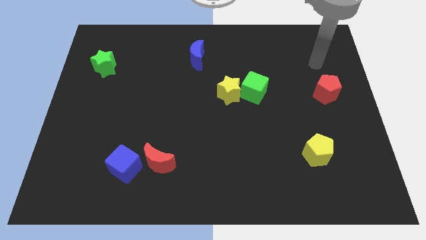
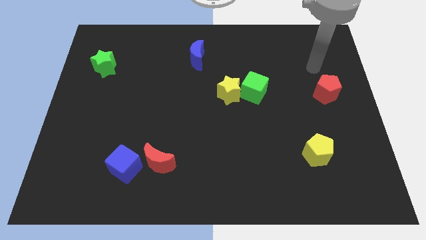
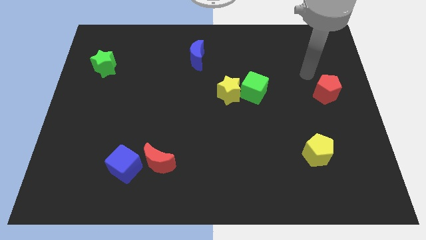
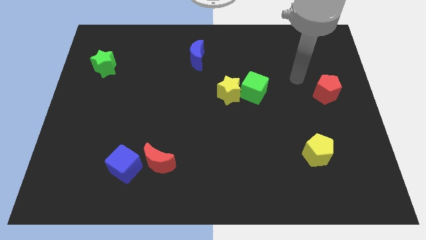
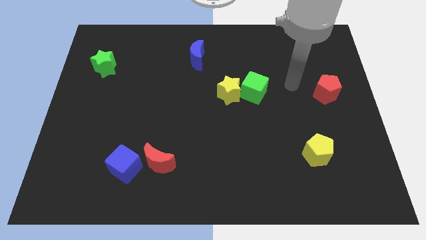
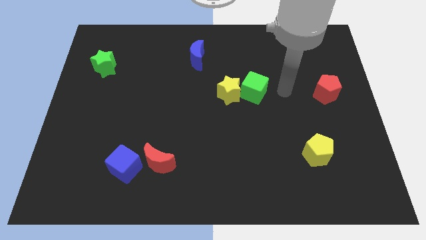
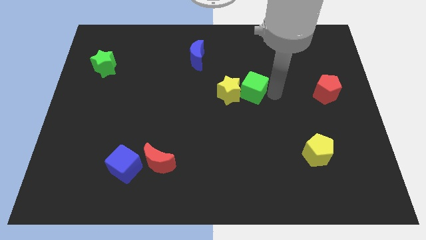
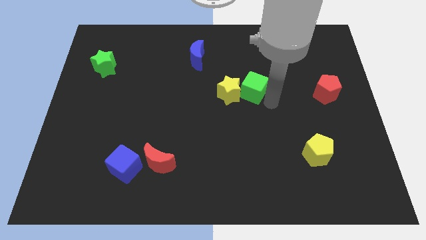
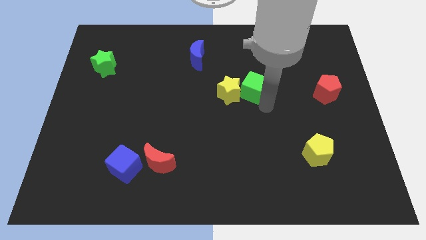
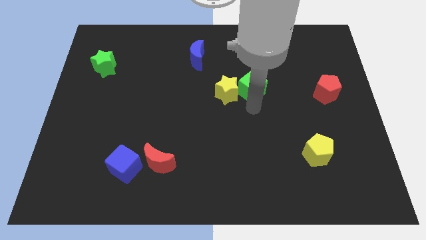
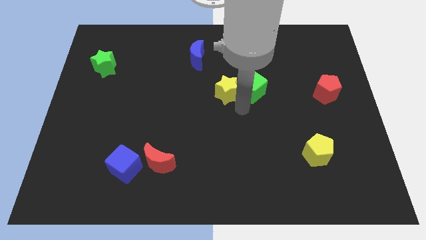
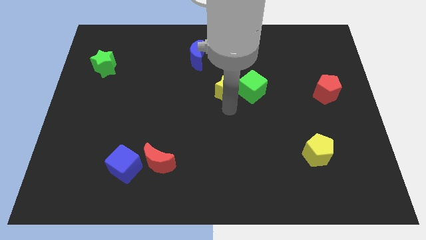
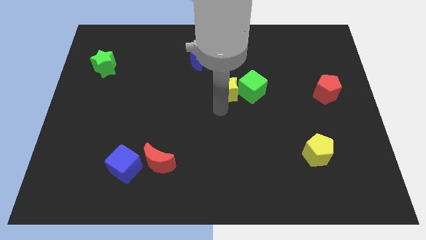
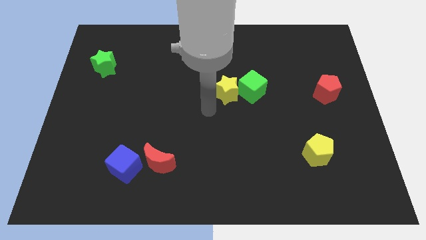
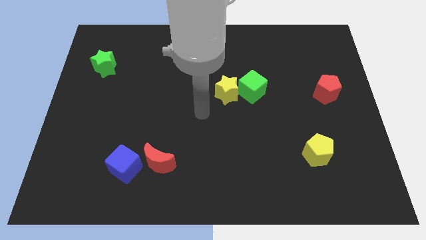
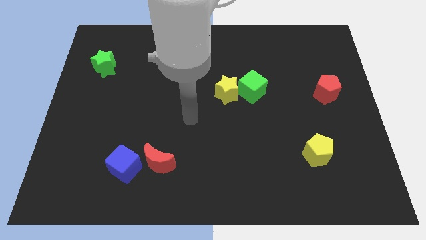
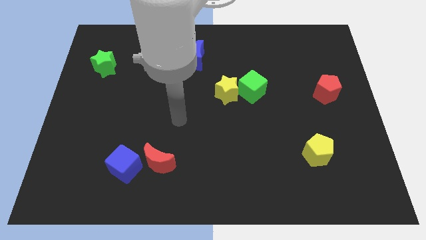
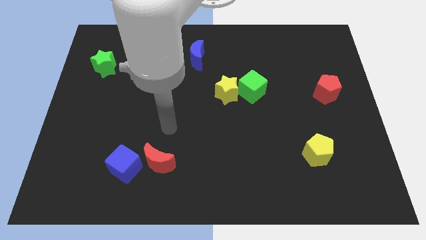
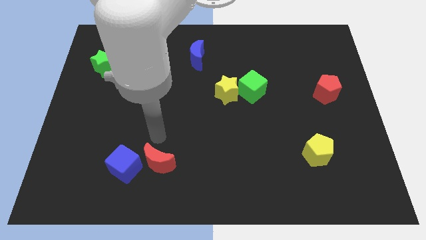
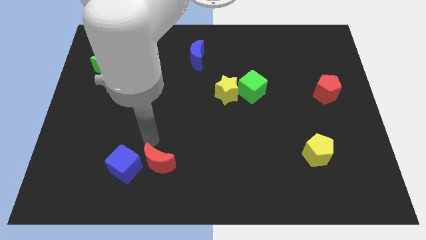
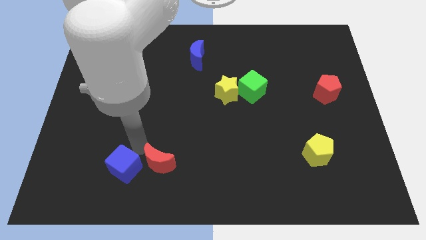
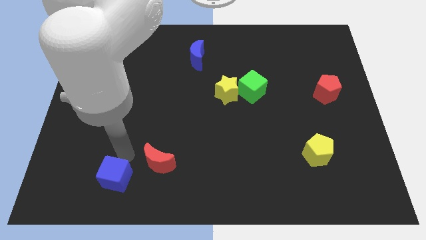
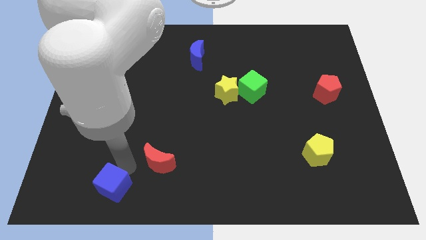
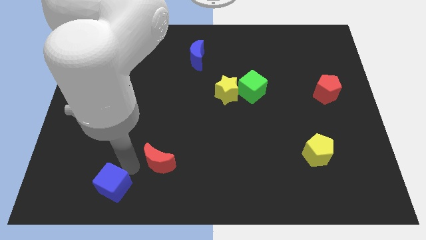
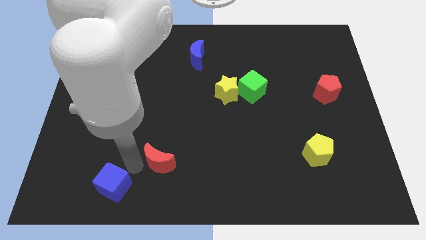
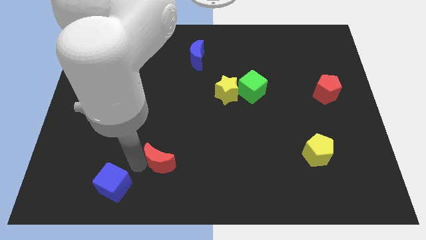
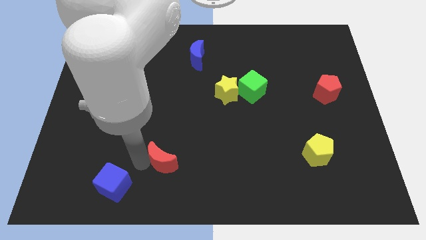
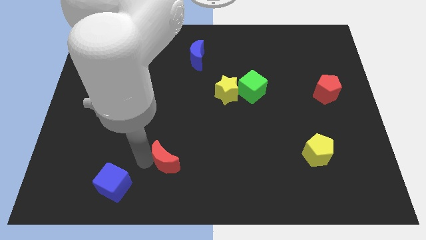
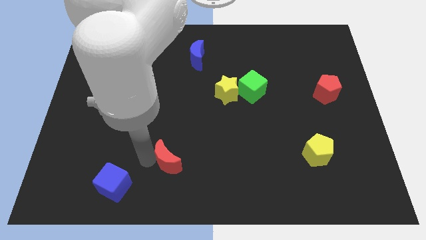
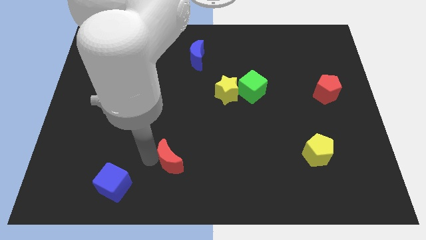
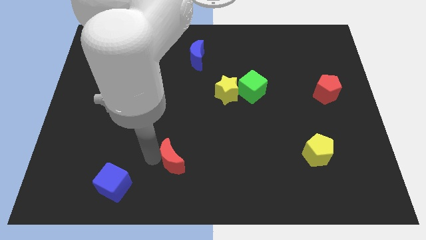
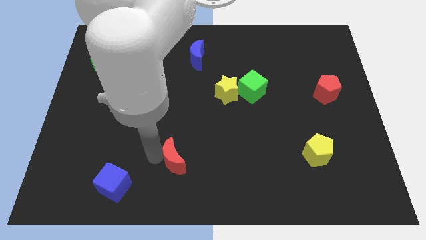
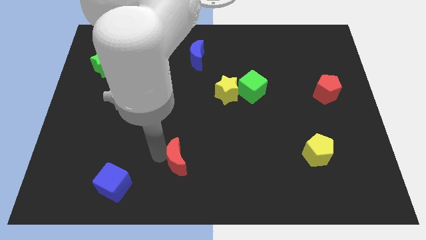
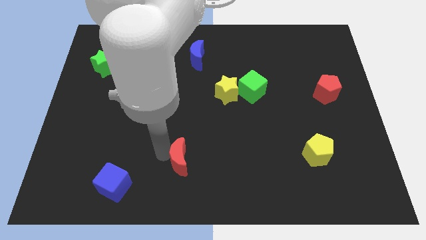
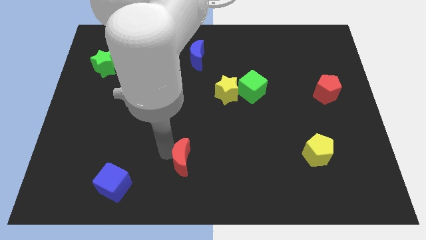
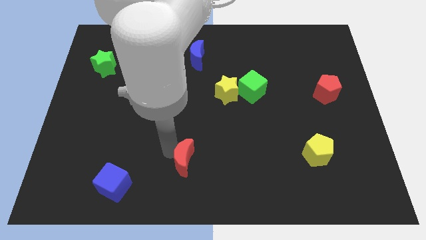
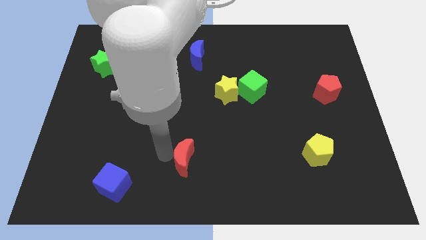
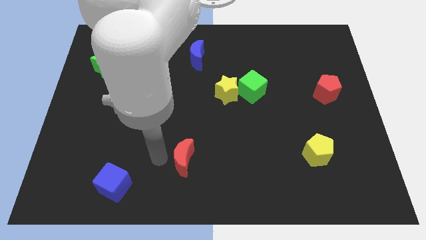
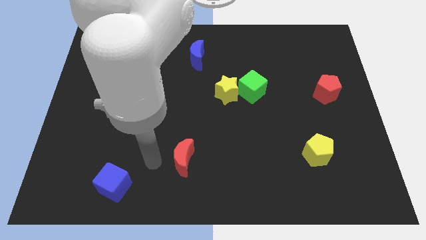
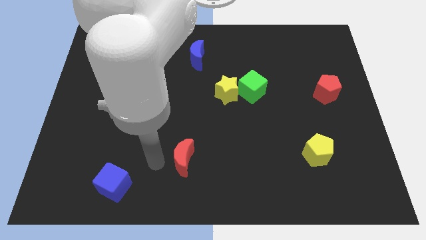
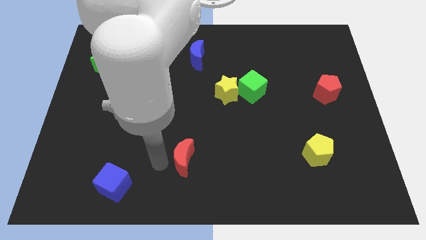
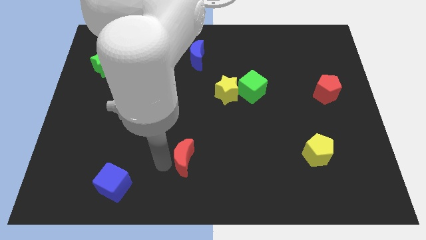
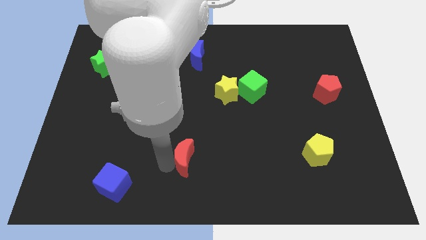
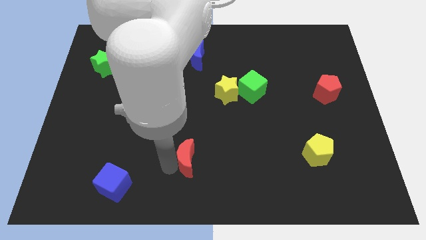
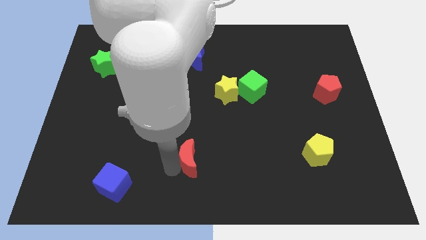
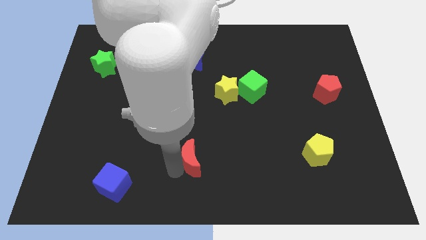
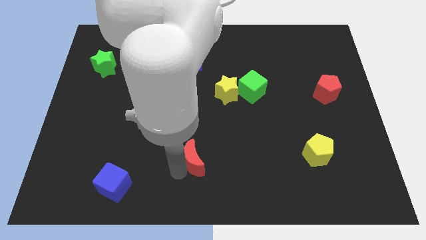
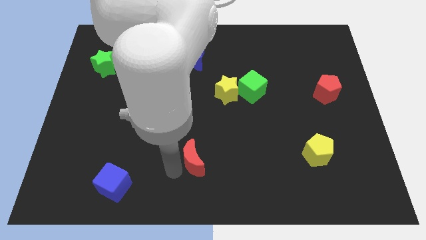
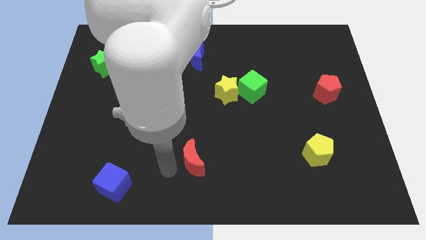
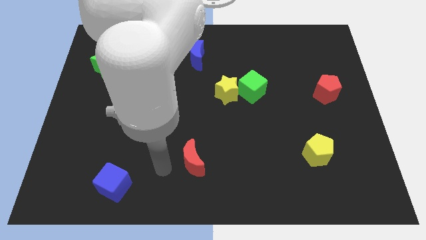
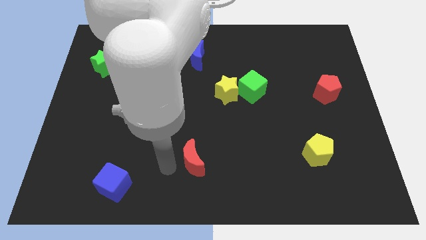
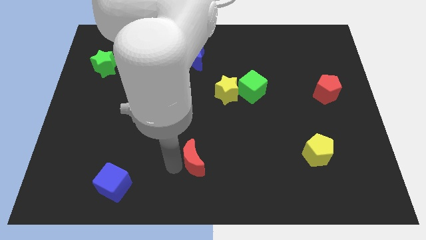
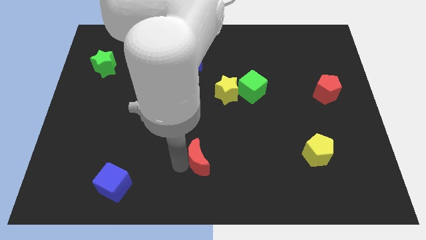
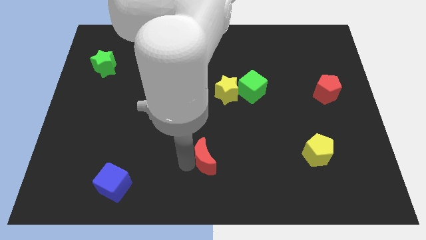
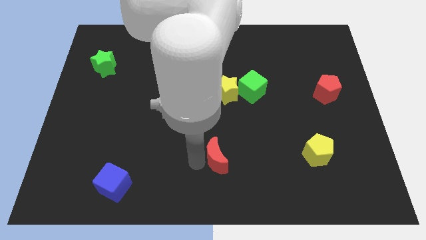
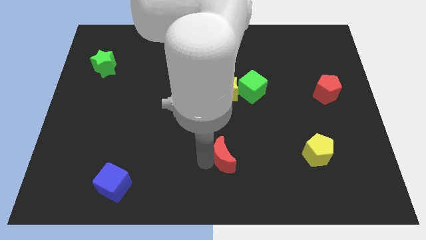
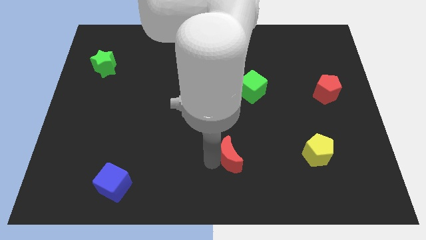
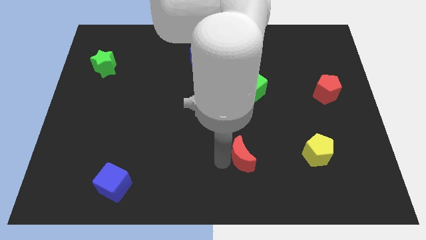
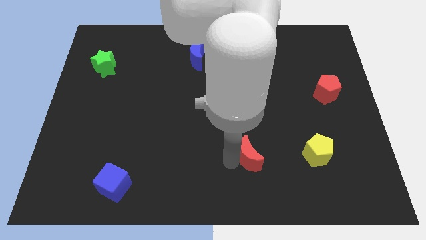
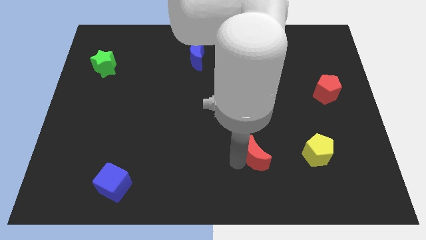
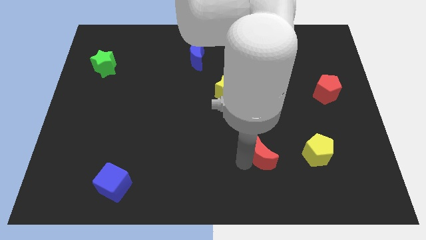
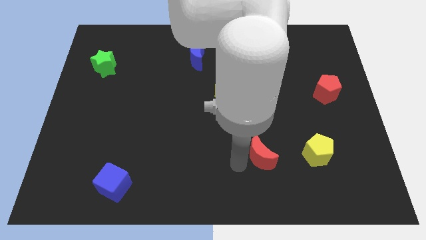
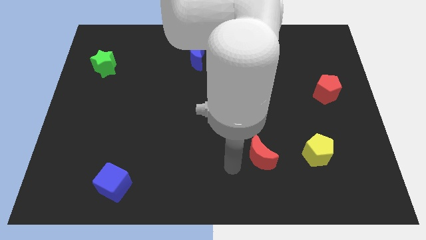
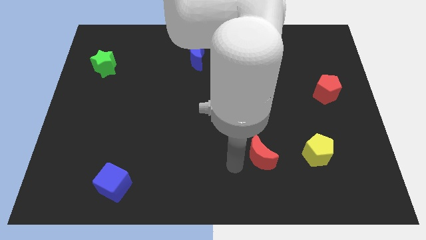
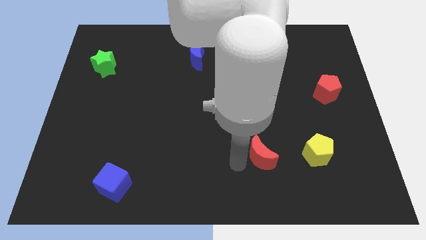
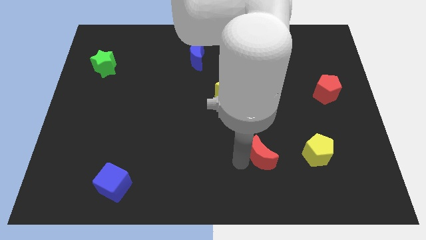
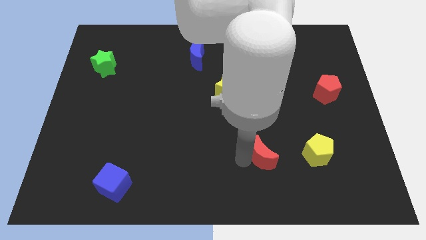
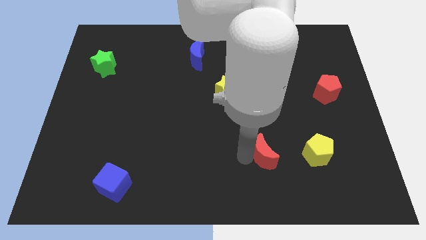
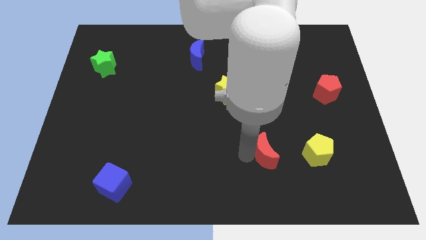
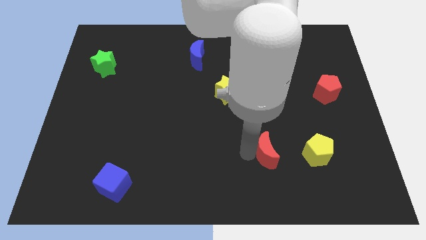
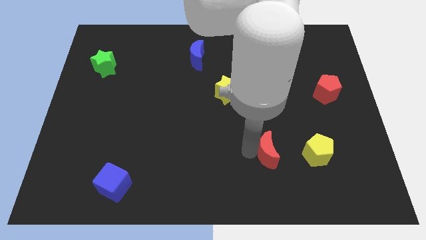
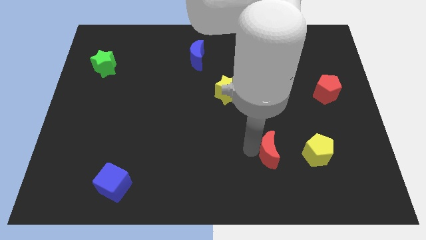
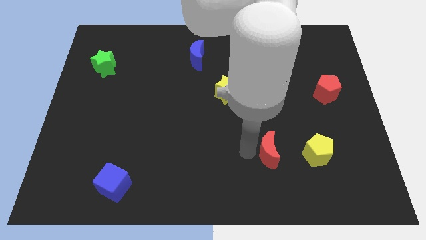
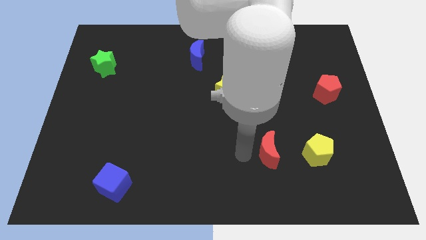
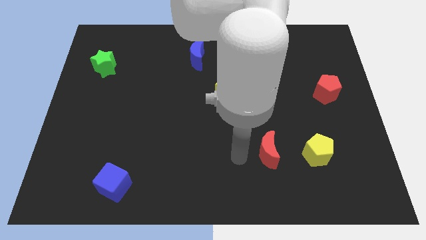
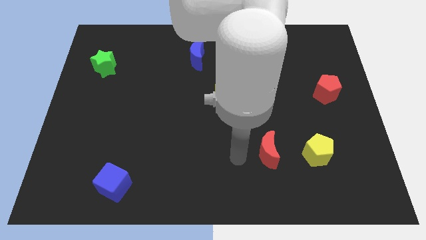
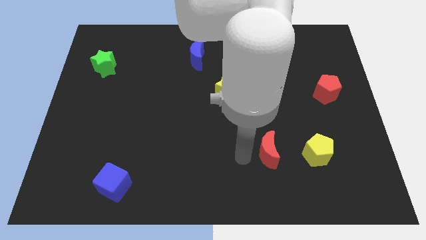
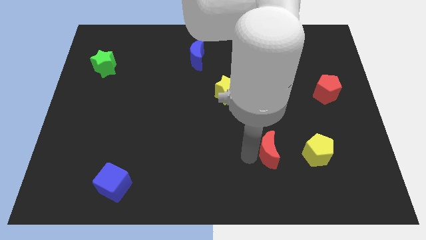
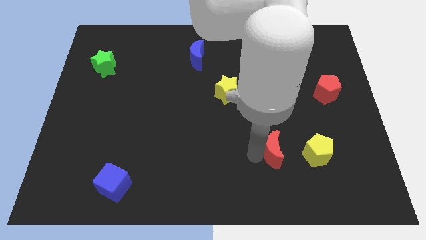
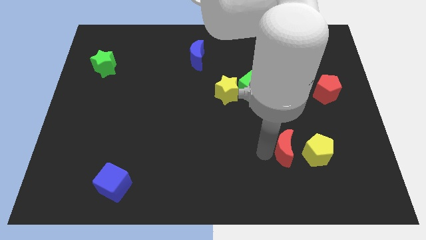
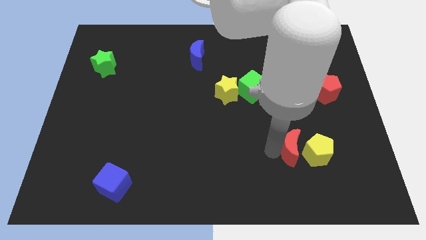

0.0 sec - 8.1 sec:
slide the red moon towards the yellow pentagon
